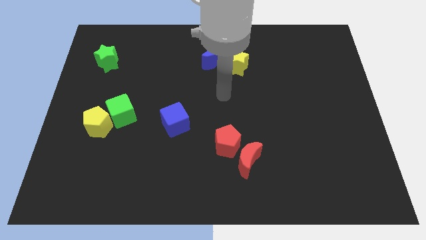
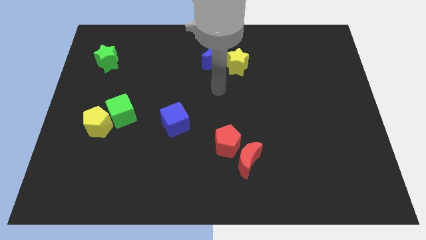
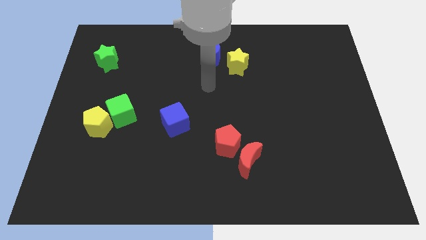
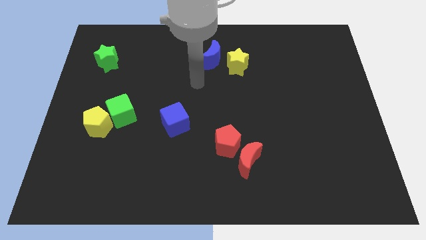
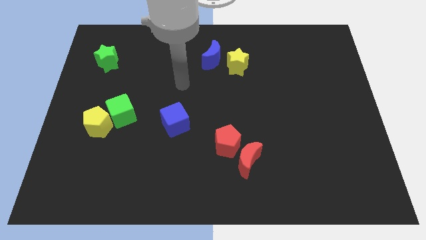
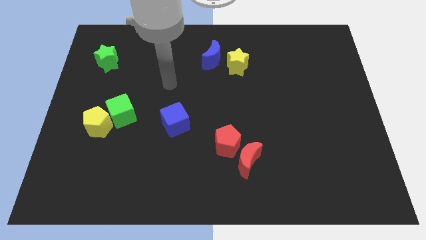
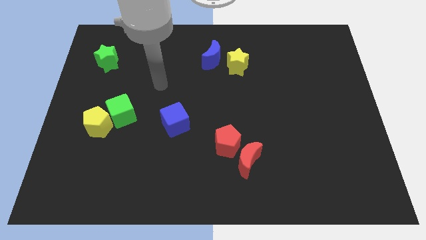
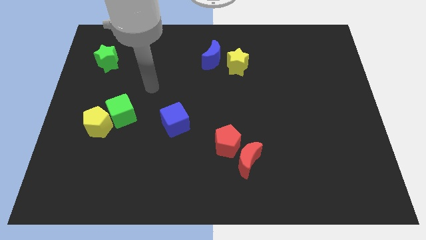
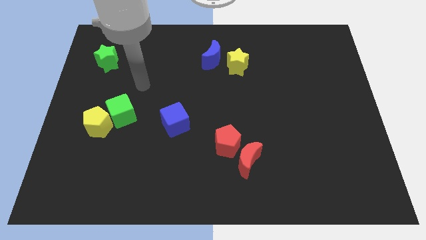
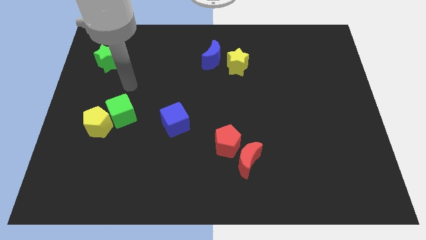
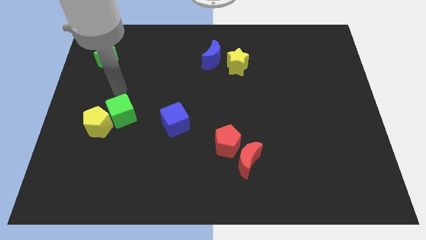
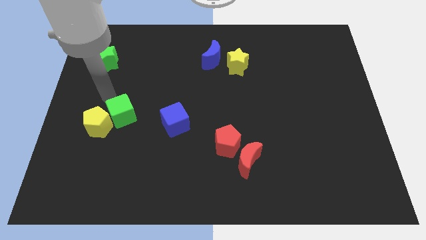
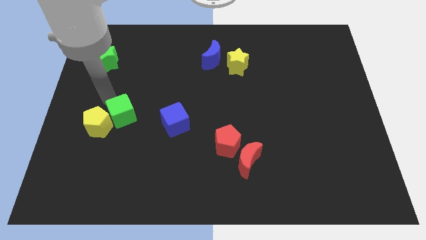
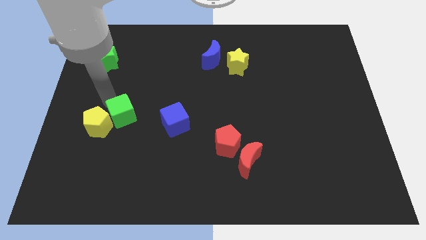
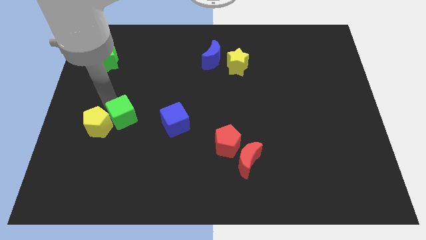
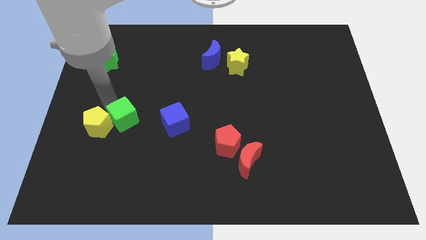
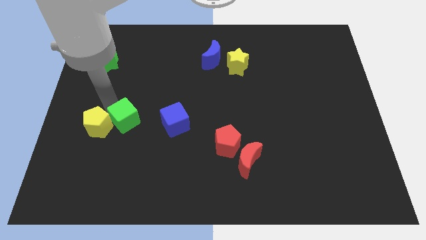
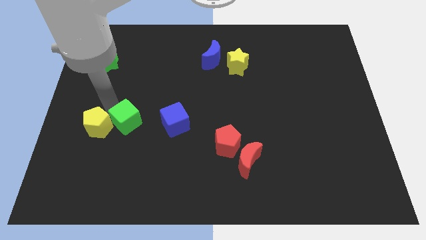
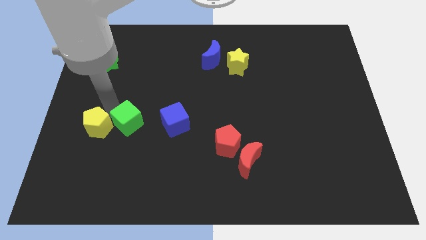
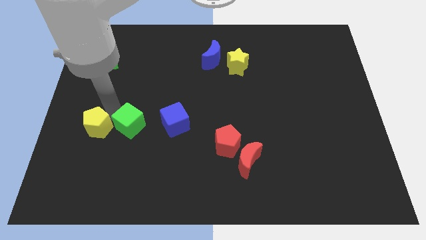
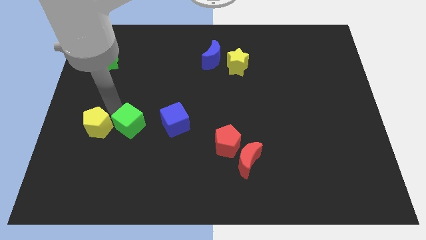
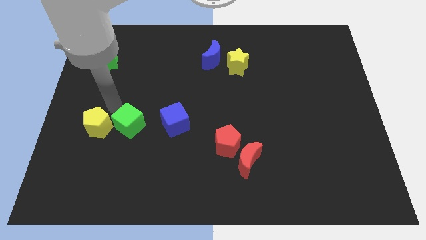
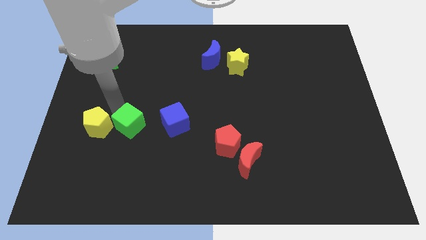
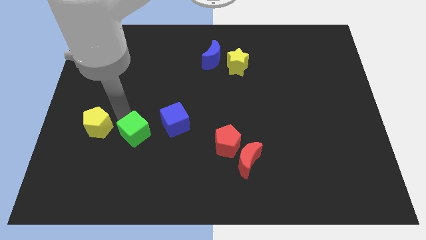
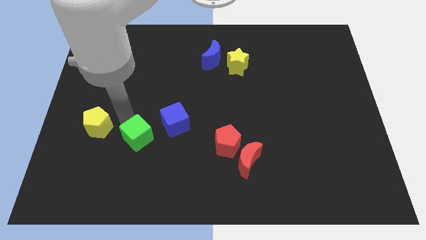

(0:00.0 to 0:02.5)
push the green cube downwards and then right a bit

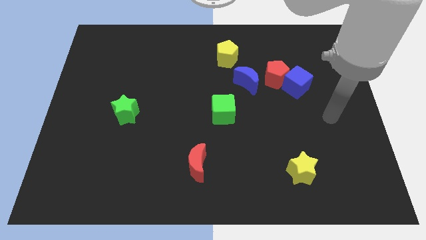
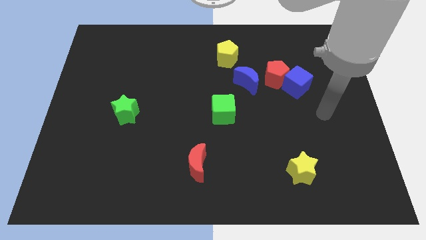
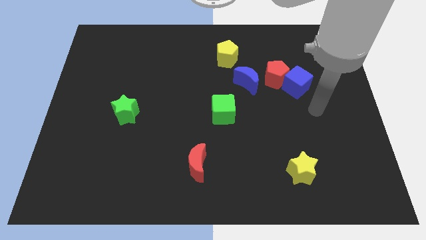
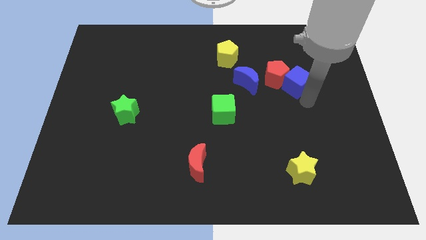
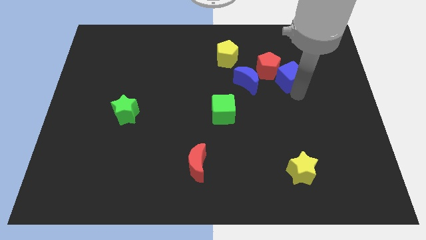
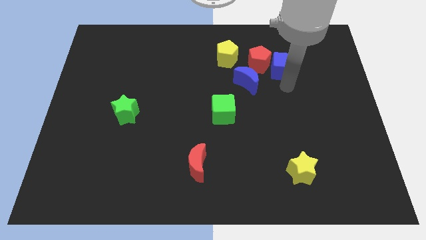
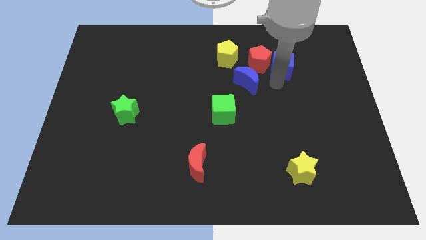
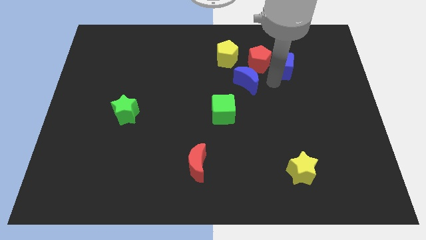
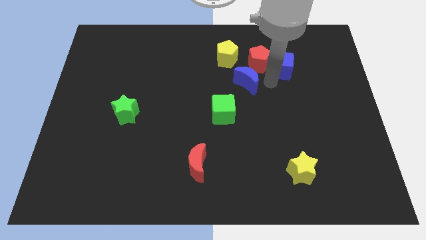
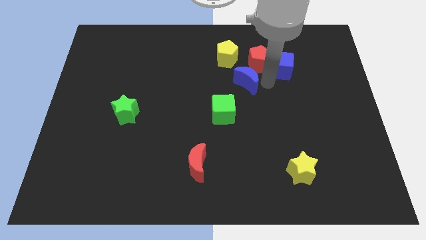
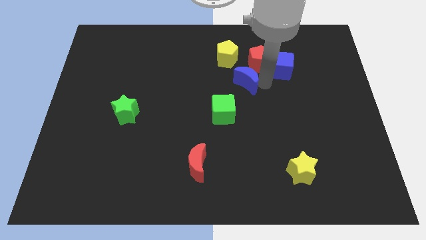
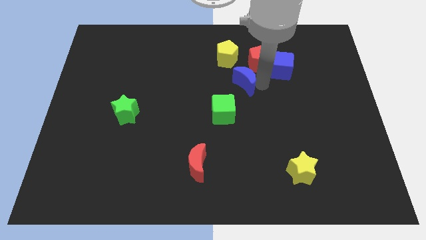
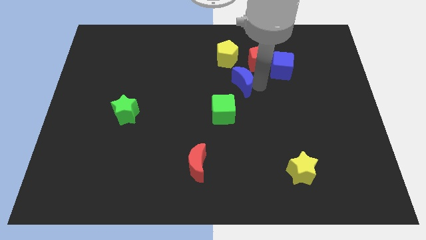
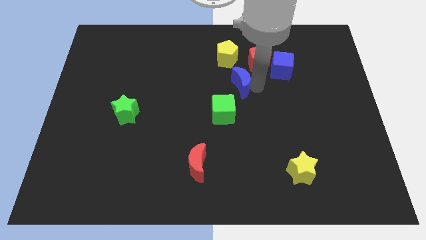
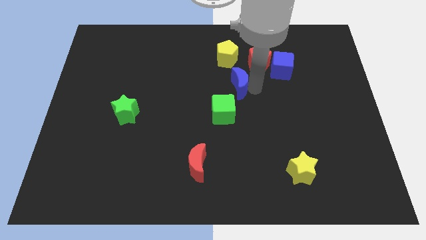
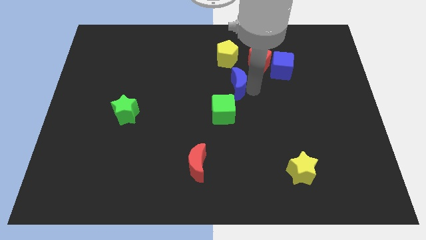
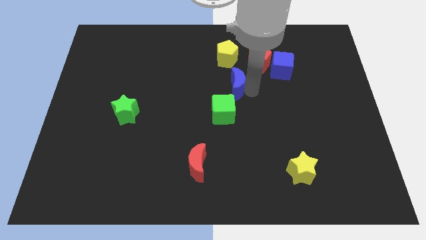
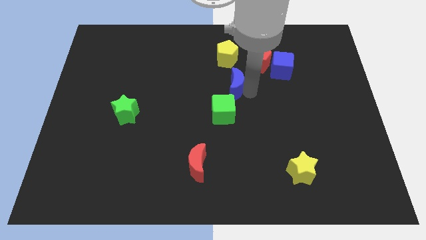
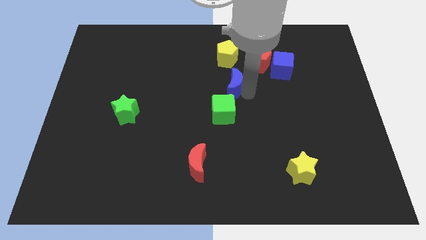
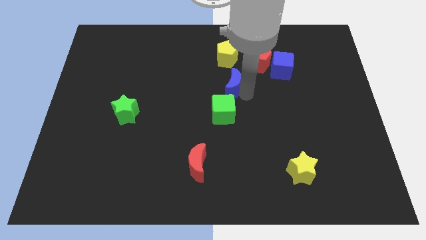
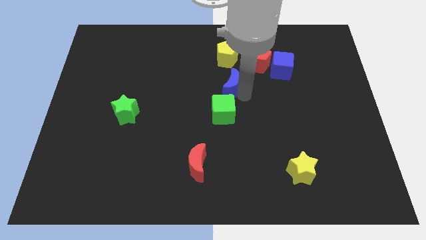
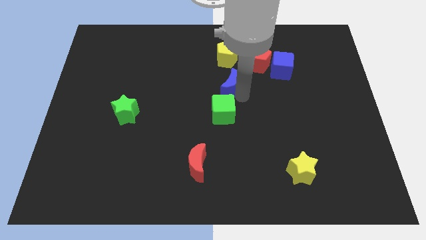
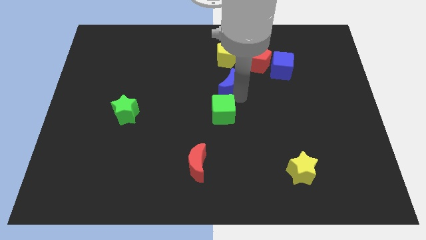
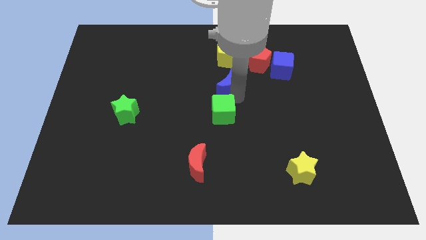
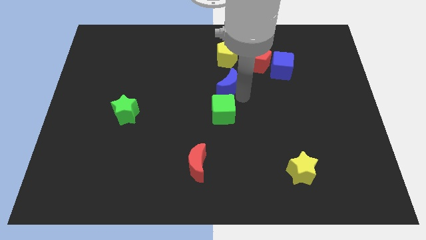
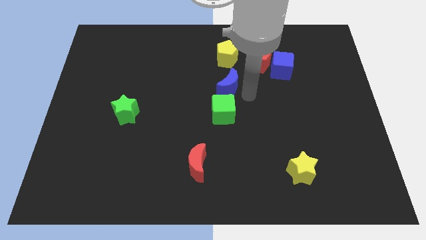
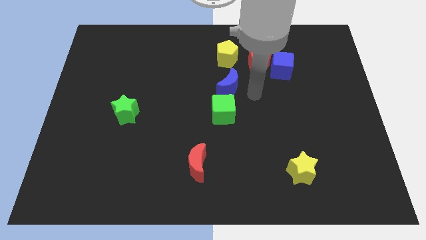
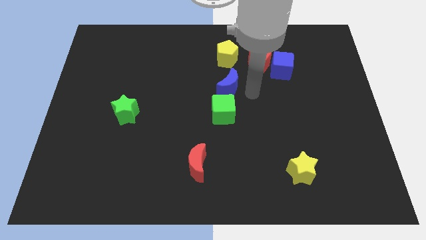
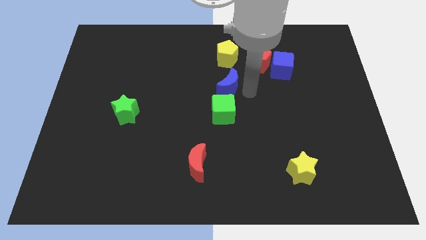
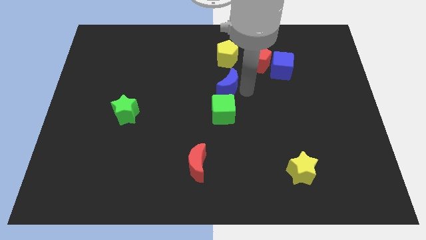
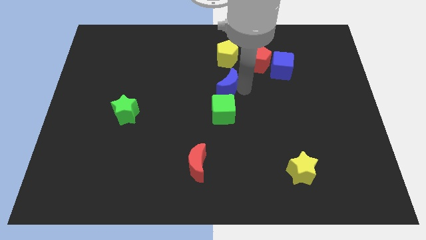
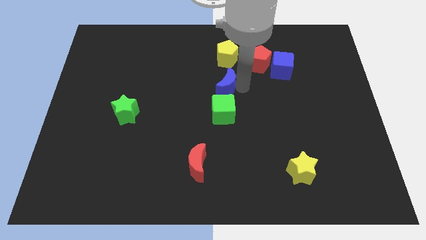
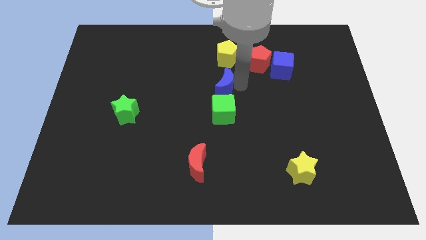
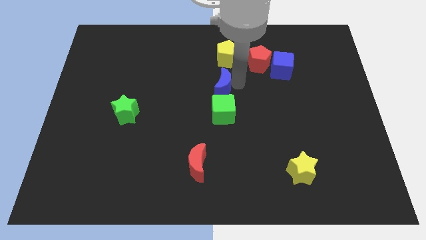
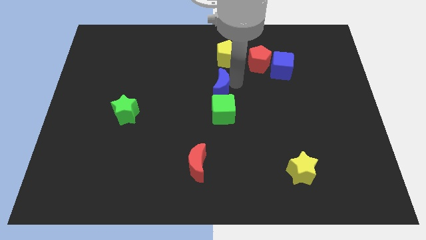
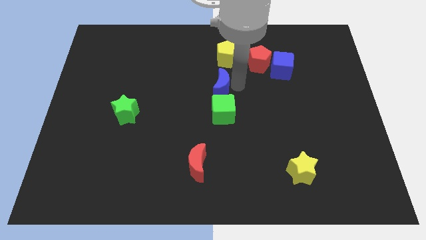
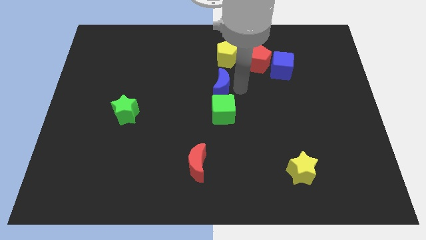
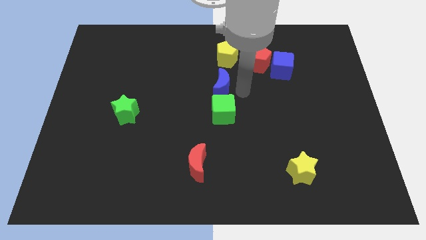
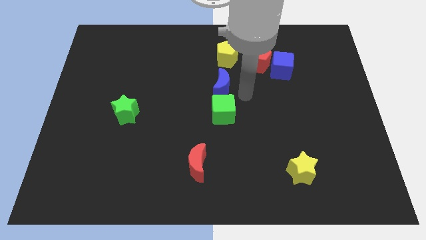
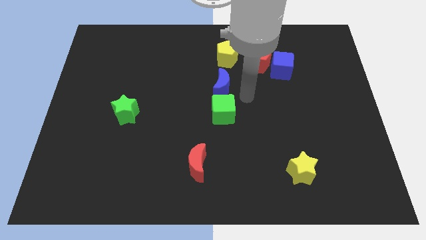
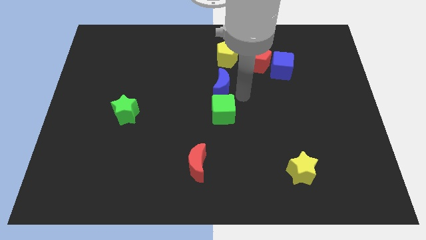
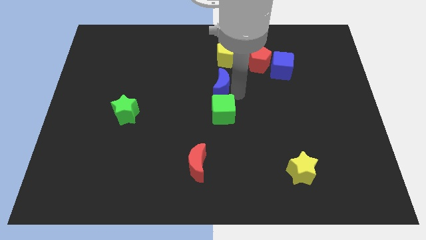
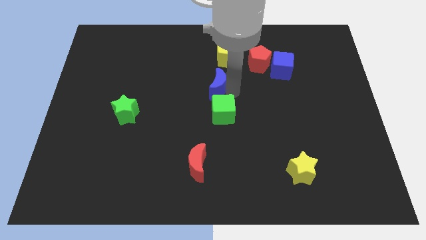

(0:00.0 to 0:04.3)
slightly push the blue moon left

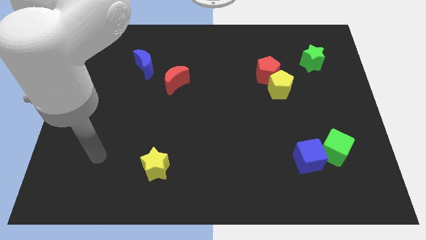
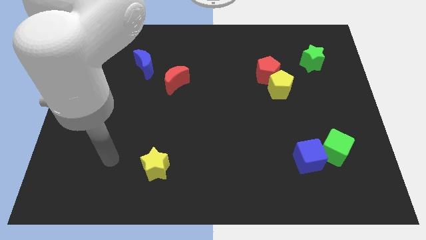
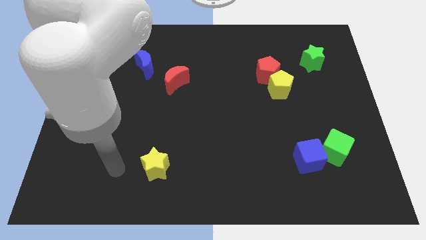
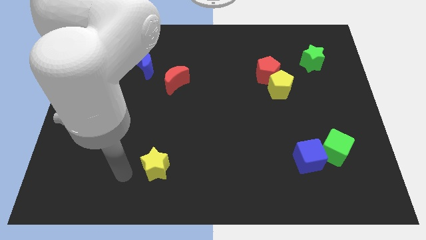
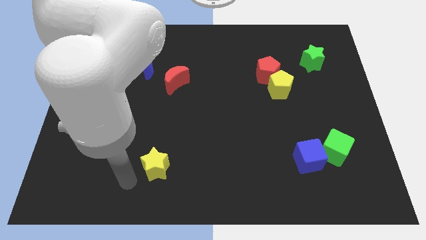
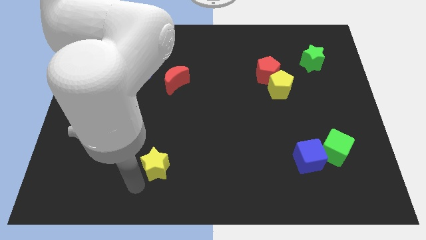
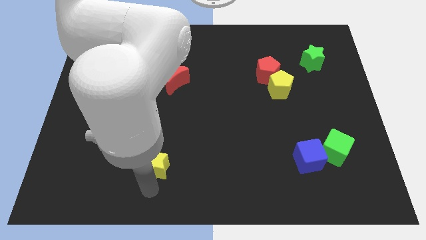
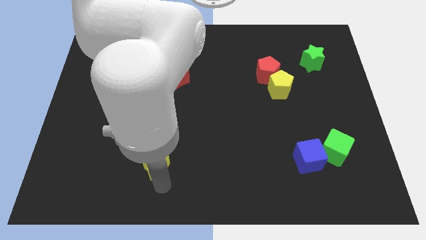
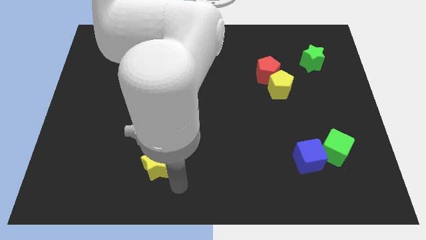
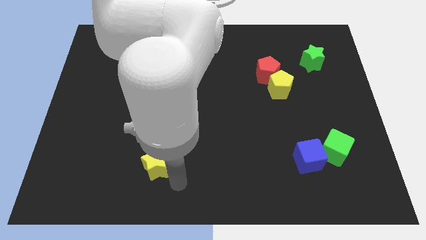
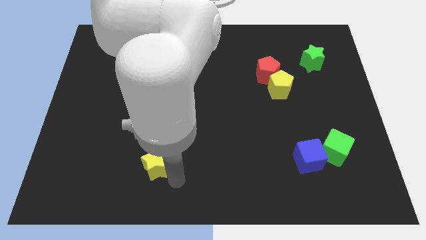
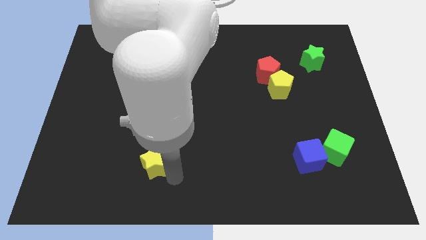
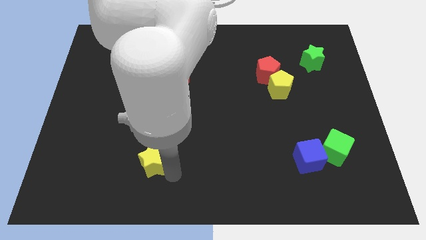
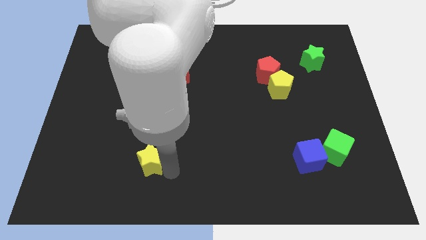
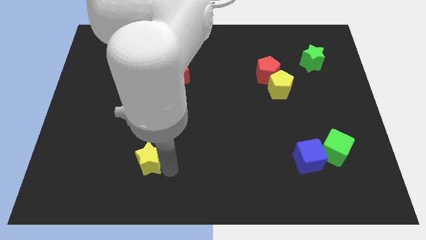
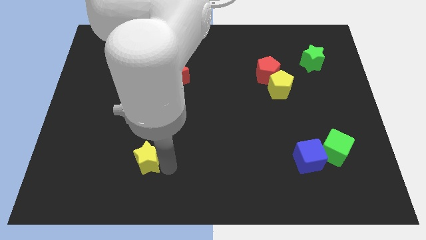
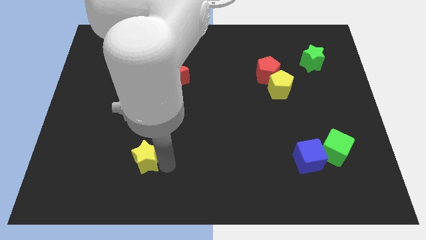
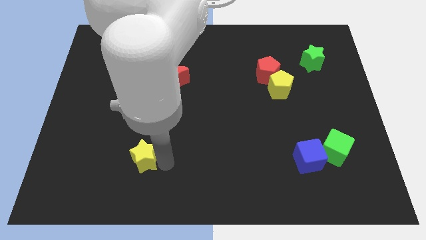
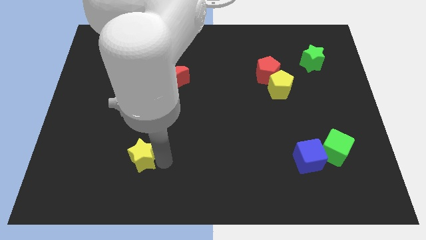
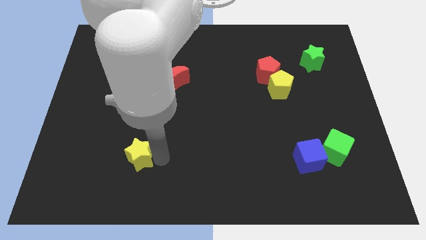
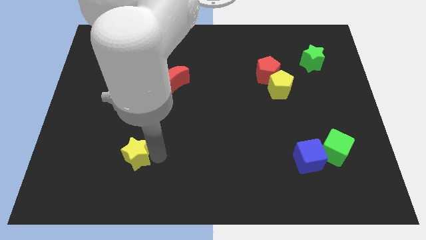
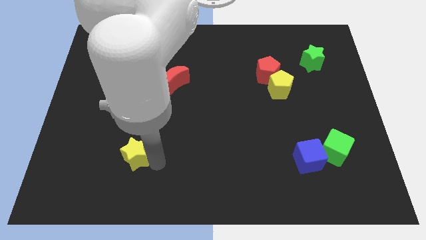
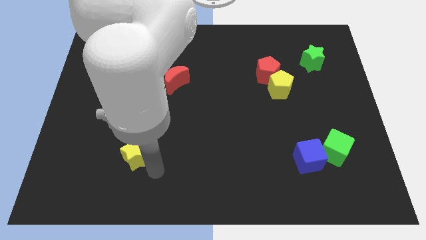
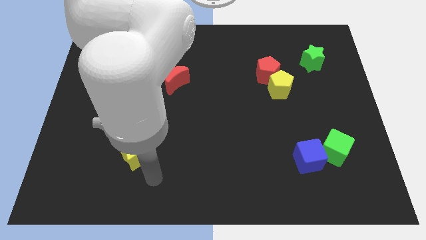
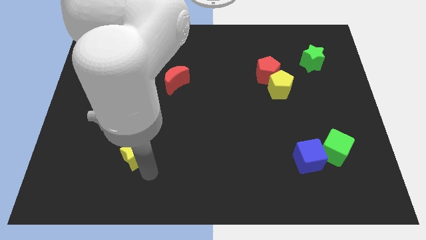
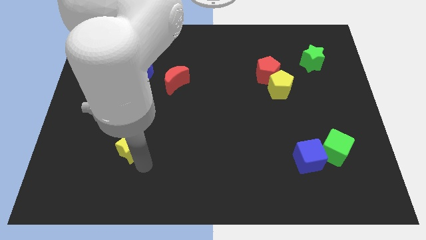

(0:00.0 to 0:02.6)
slide the yellow star a bit up and left
